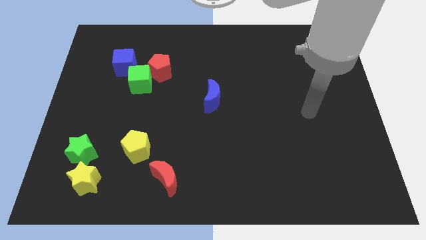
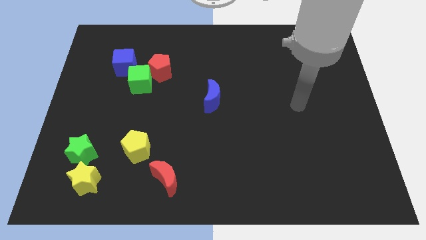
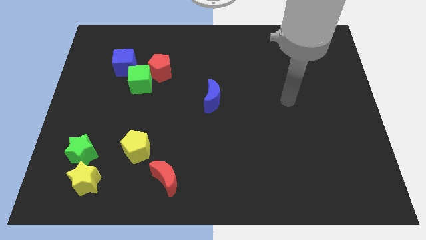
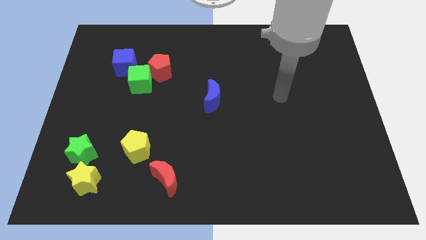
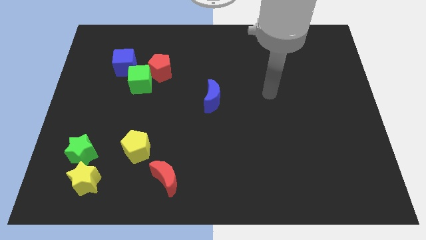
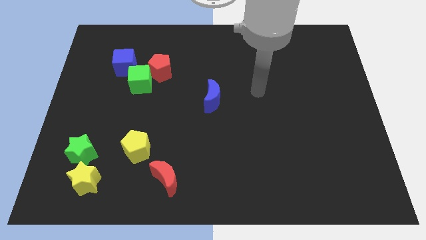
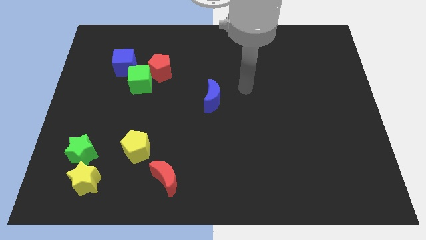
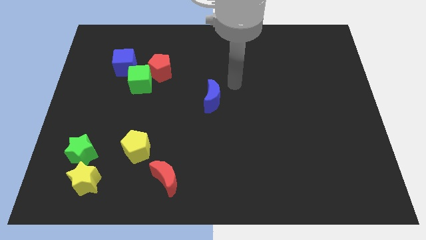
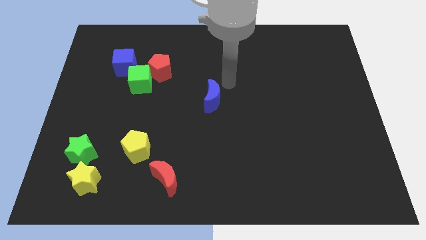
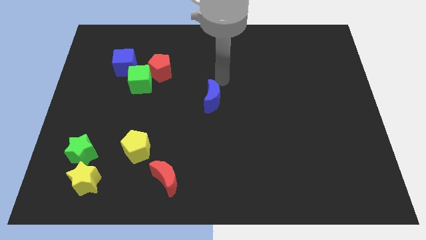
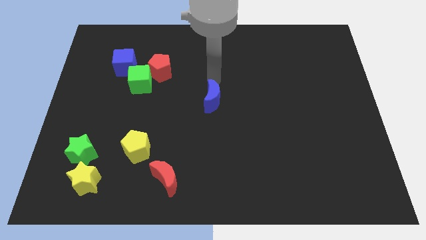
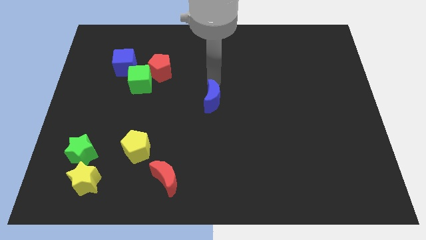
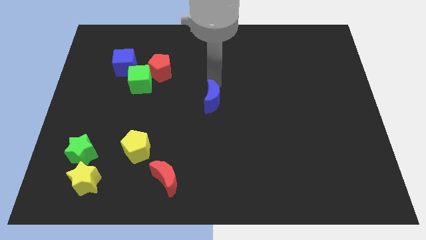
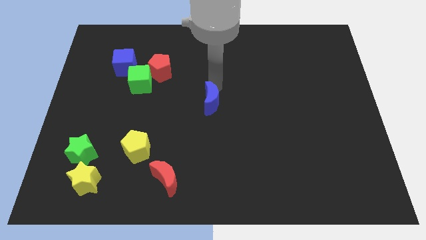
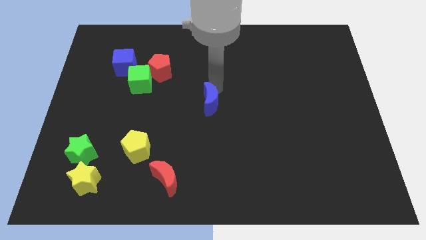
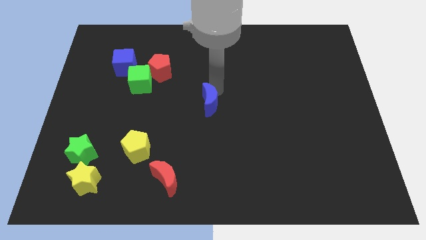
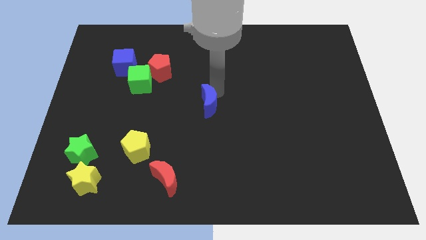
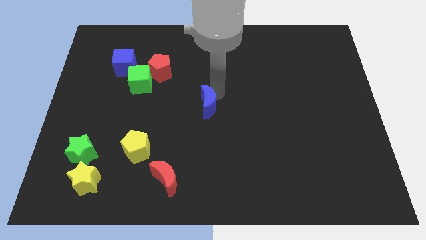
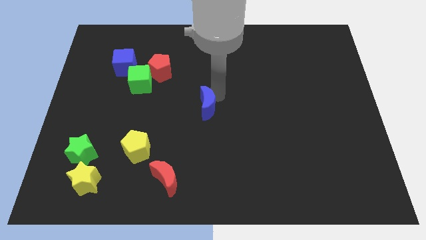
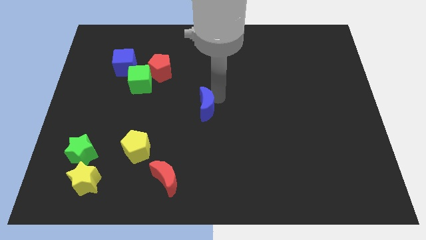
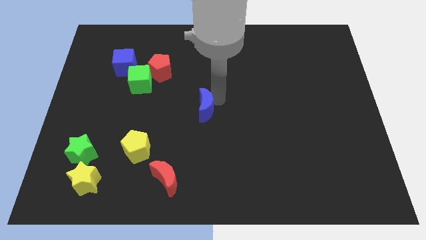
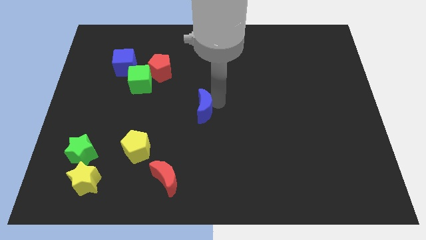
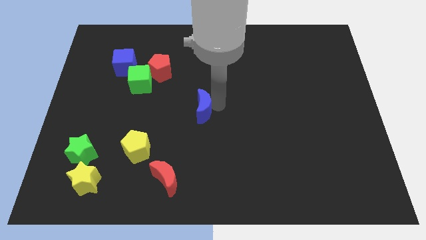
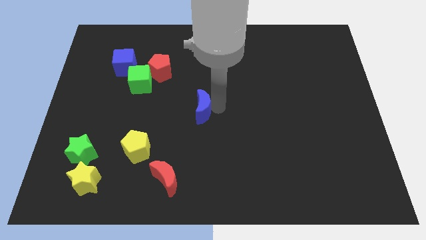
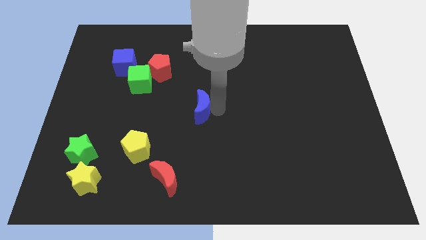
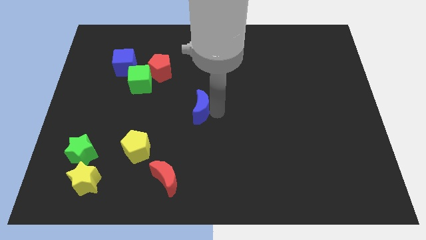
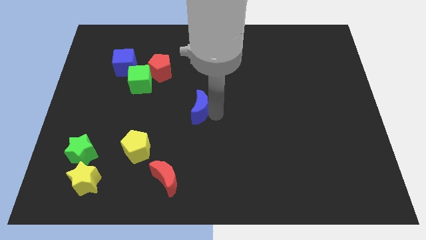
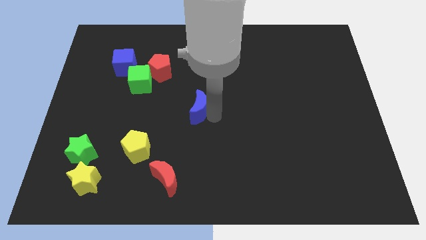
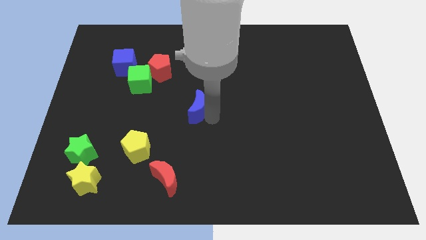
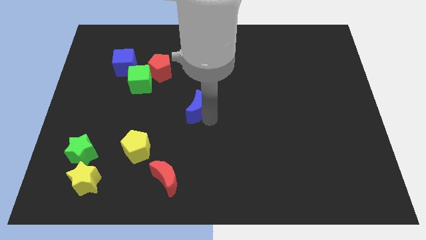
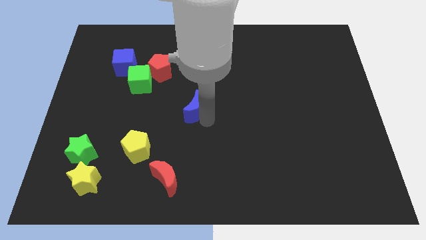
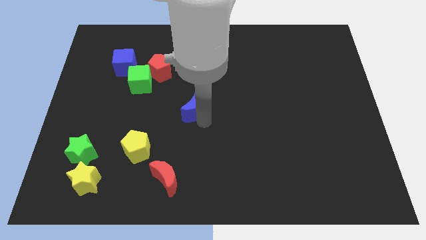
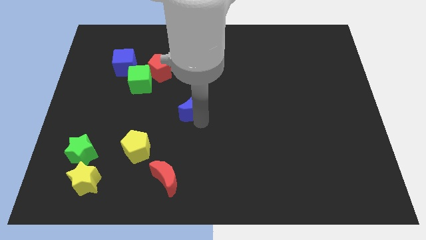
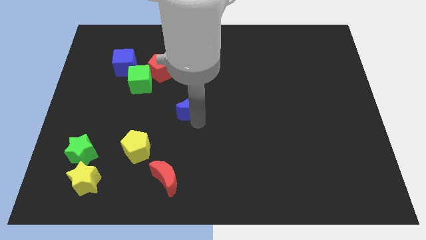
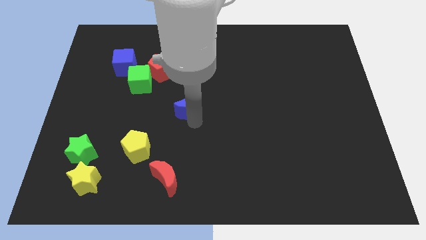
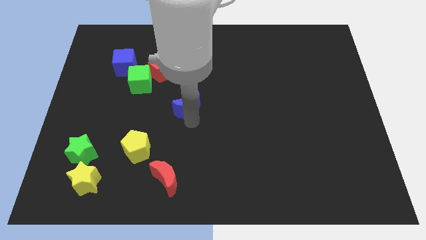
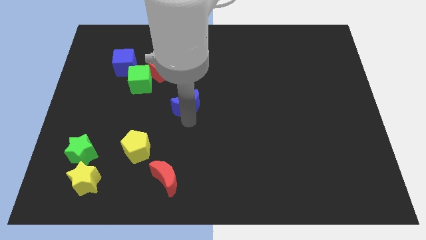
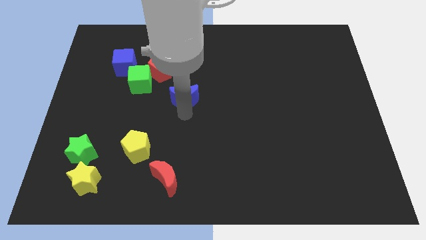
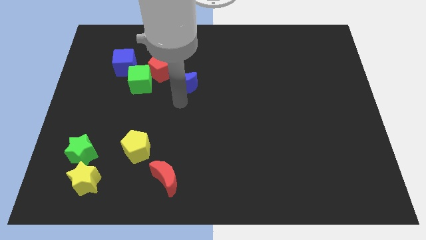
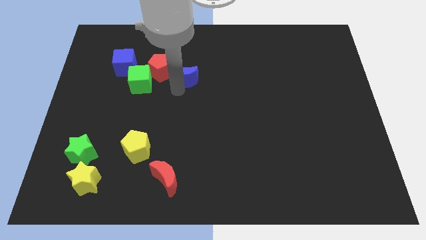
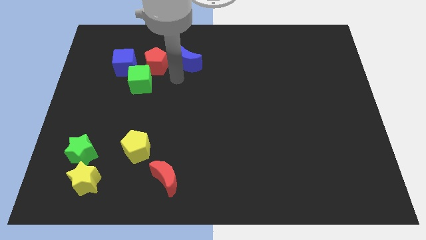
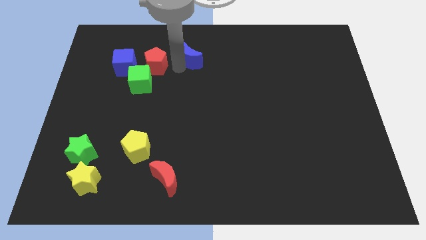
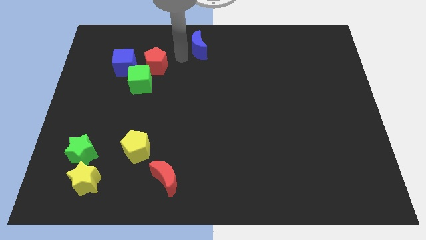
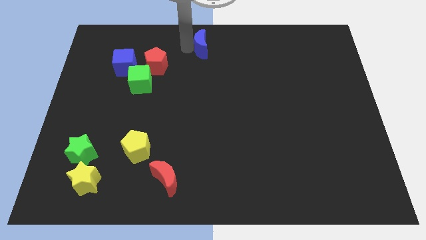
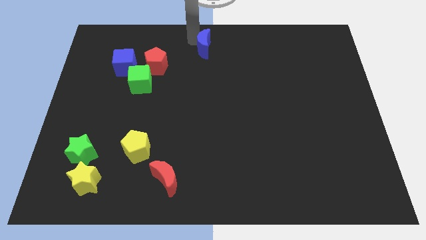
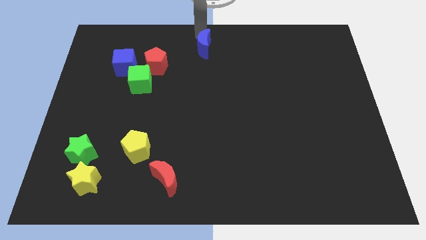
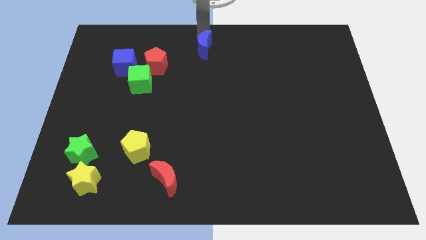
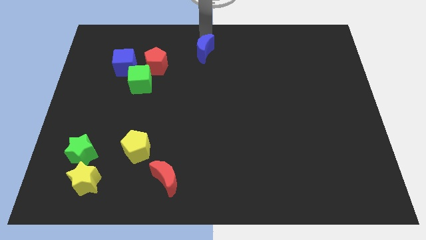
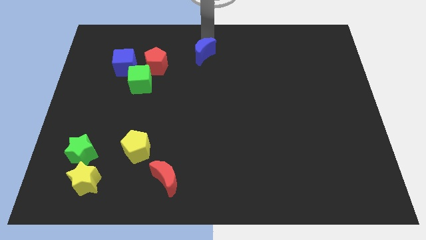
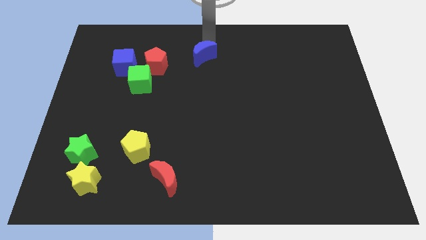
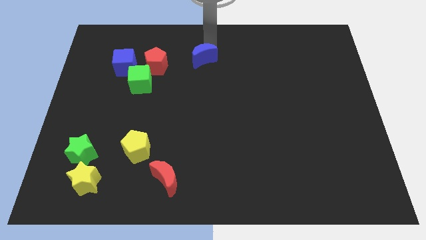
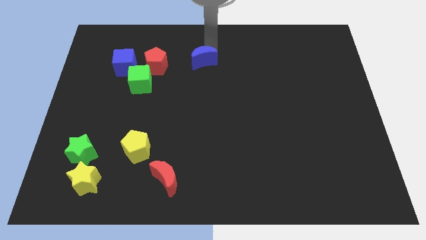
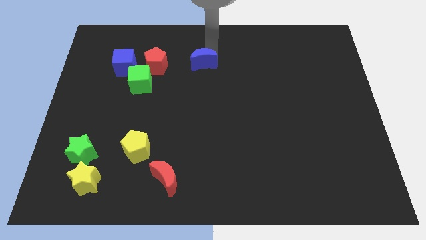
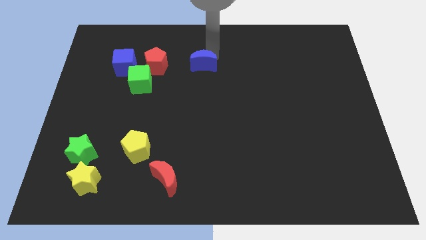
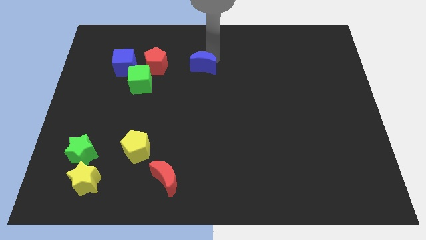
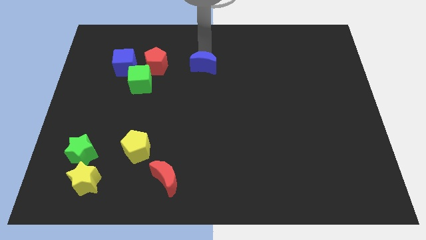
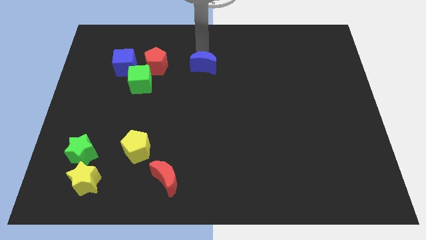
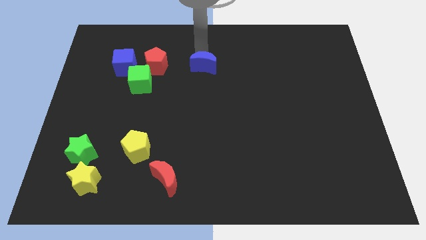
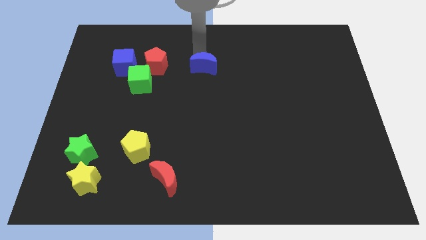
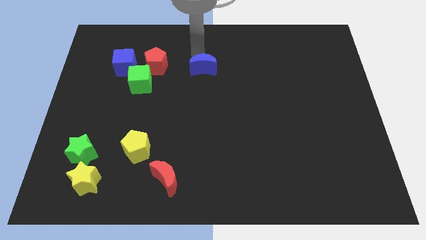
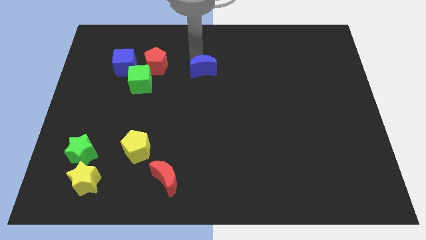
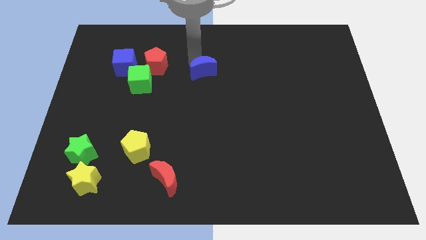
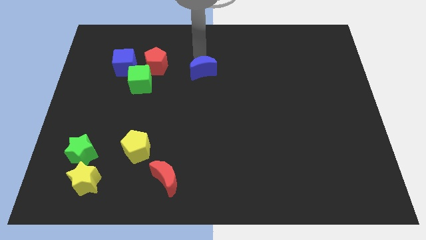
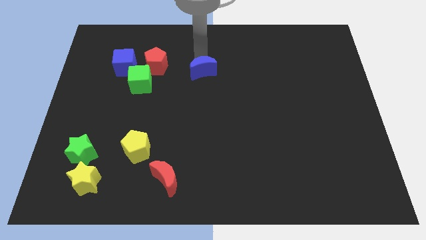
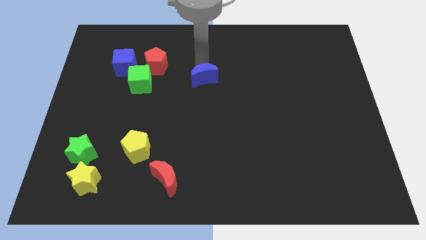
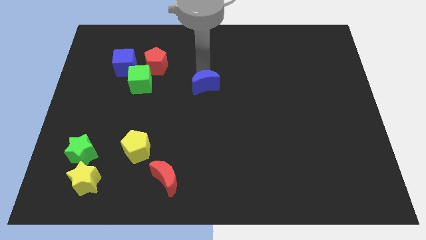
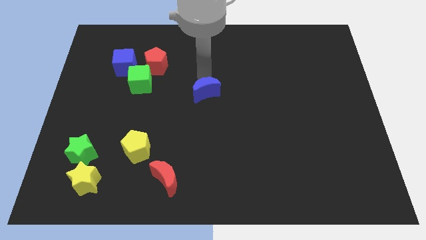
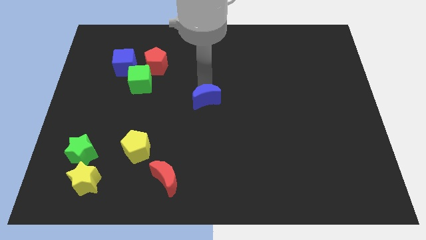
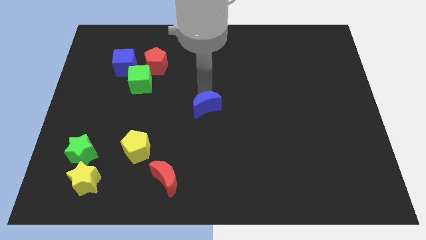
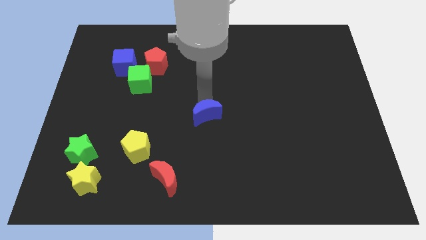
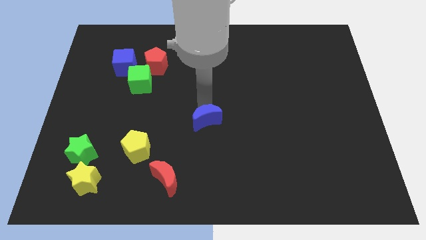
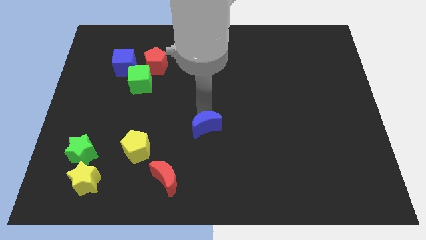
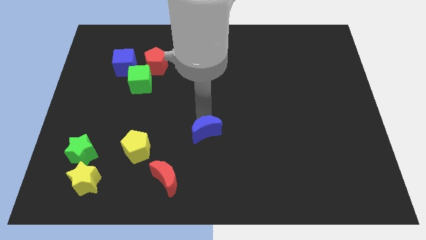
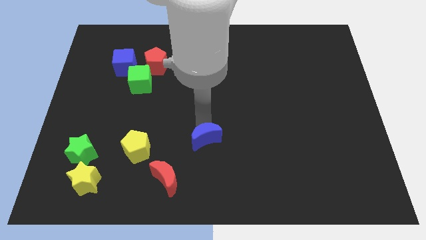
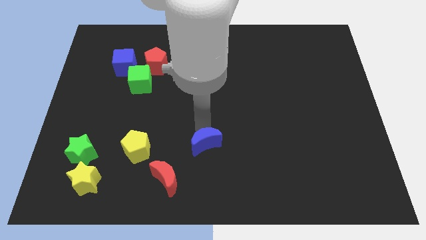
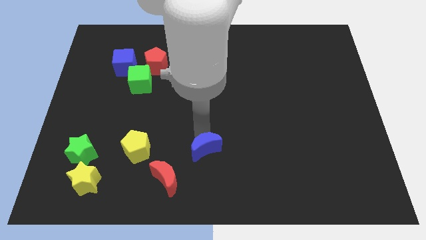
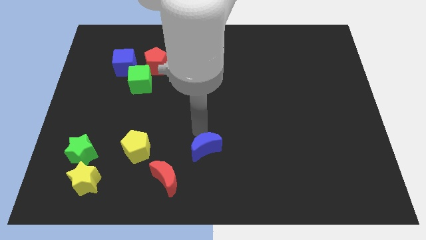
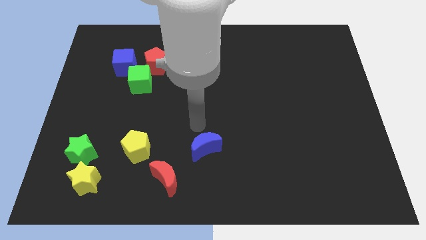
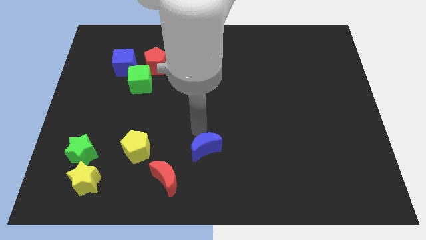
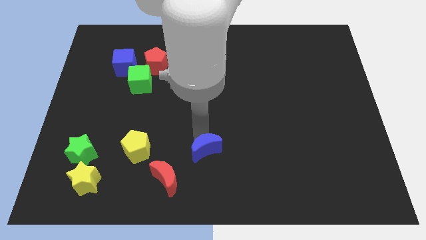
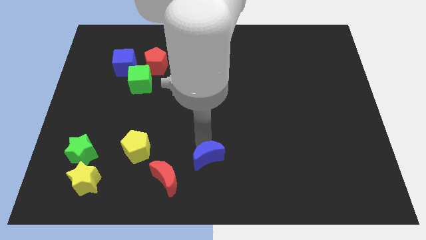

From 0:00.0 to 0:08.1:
slide the blue moon to the bottom
